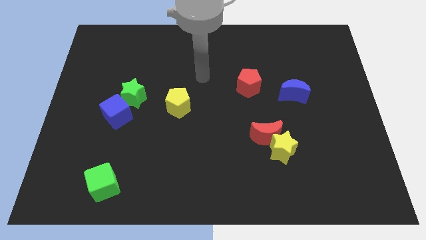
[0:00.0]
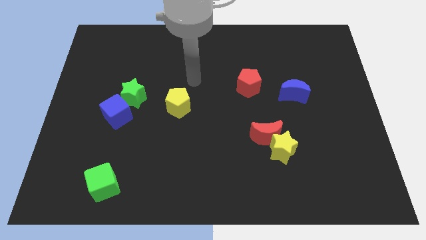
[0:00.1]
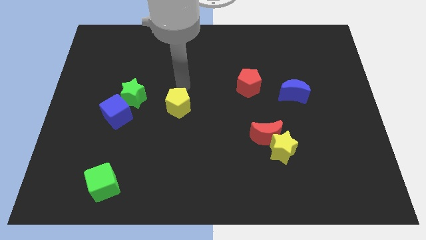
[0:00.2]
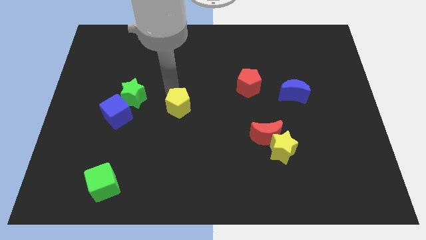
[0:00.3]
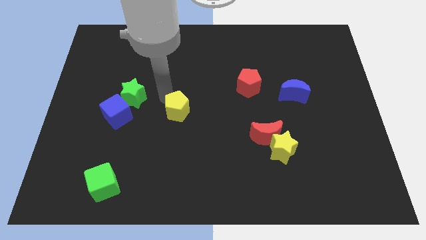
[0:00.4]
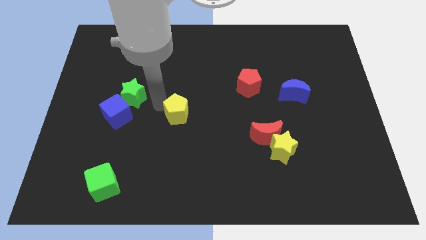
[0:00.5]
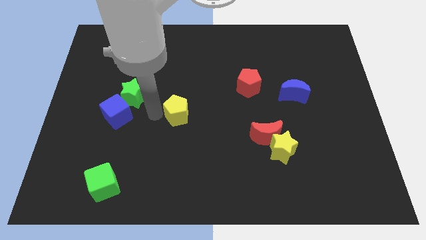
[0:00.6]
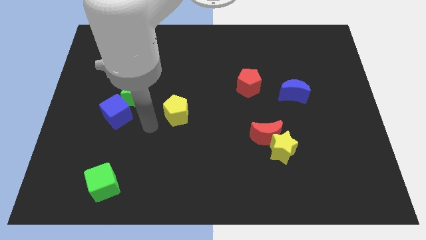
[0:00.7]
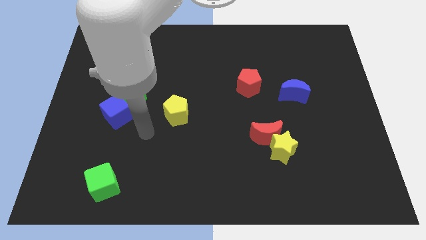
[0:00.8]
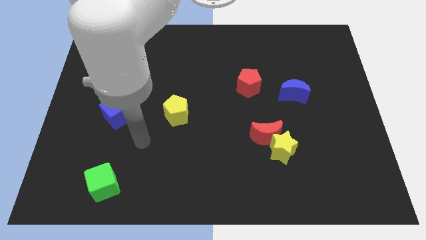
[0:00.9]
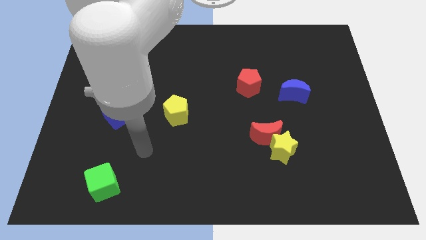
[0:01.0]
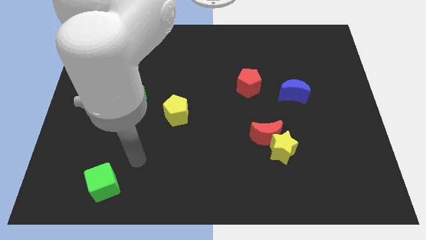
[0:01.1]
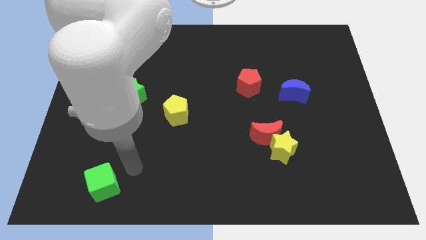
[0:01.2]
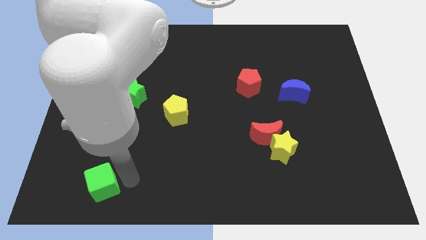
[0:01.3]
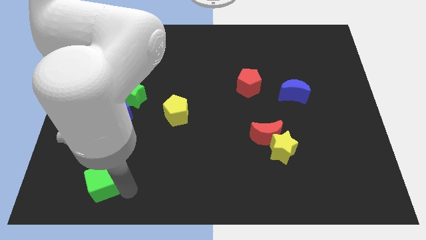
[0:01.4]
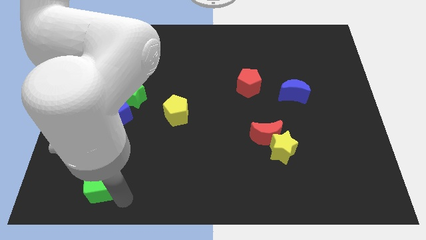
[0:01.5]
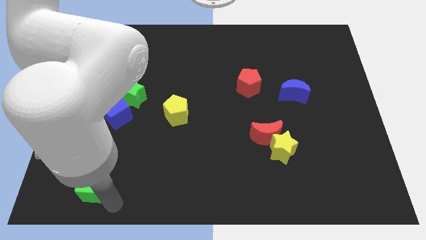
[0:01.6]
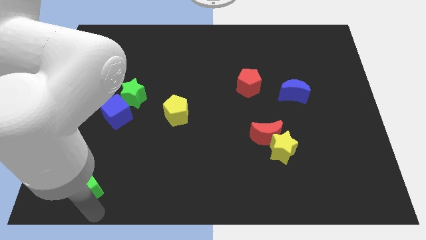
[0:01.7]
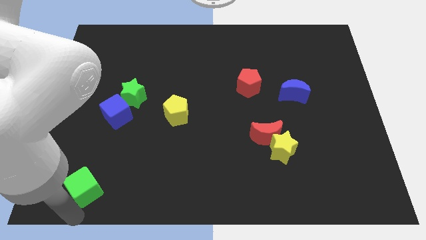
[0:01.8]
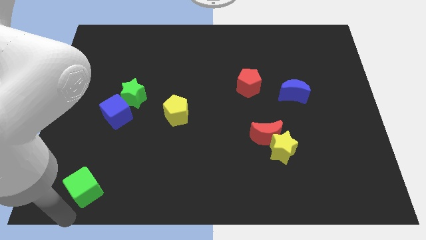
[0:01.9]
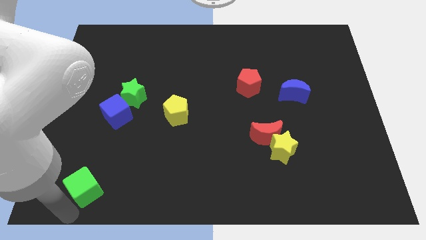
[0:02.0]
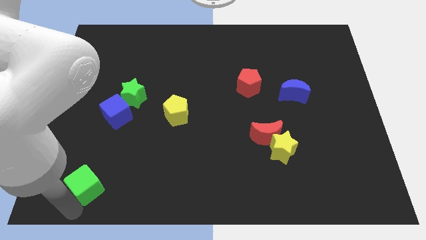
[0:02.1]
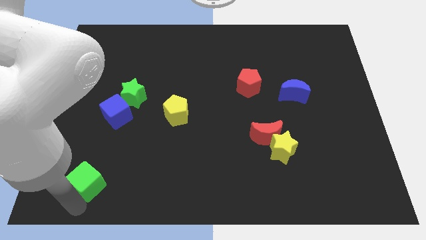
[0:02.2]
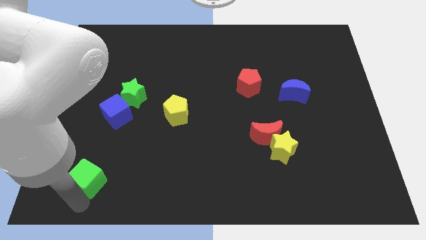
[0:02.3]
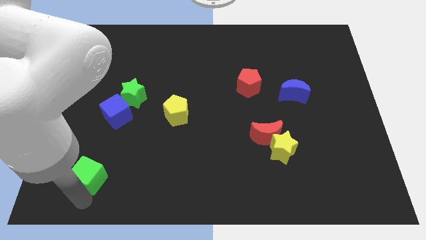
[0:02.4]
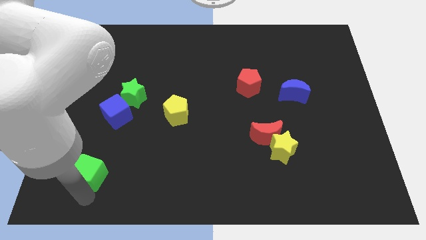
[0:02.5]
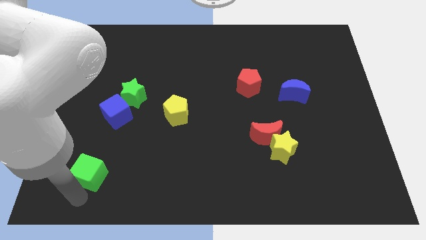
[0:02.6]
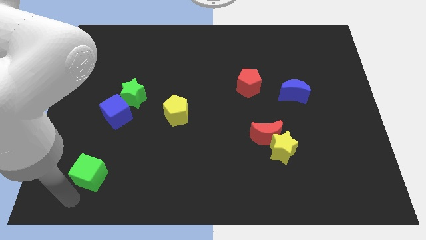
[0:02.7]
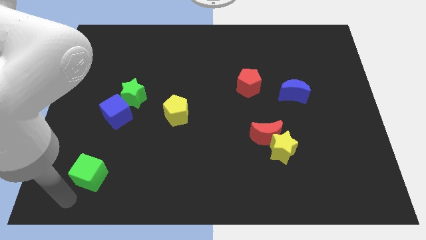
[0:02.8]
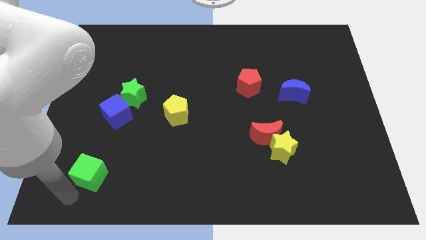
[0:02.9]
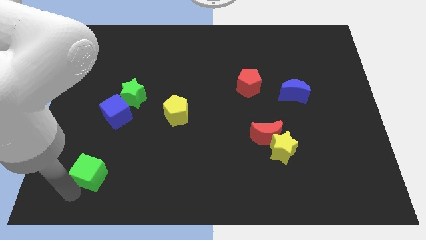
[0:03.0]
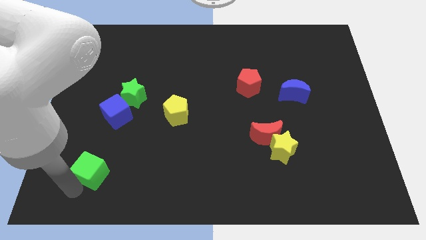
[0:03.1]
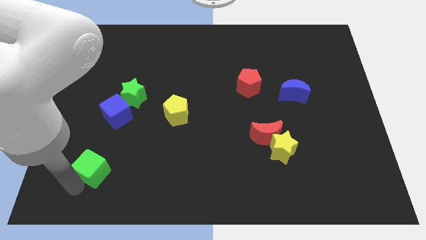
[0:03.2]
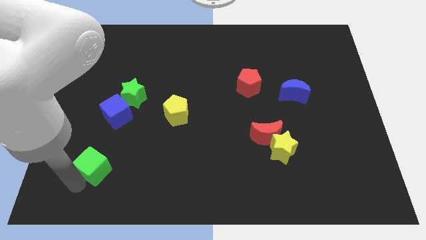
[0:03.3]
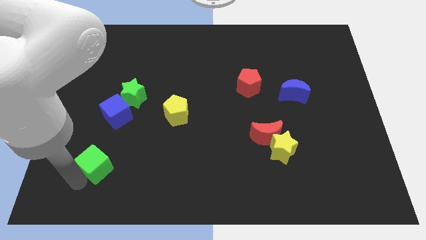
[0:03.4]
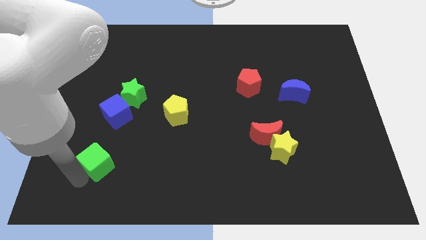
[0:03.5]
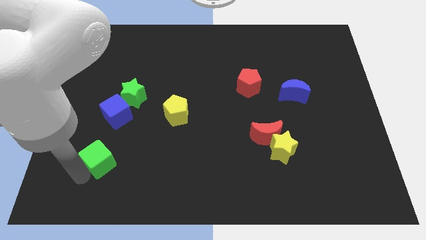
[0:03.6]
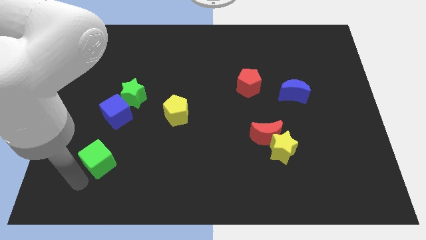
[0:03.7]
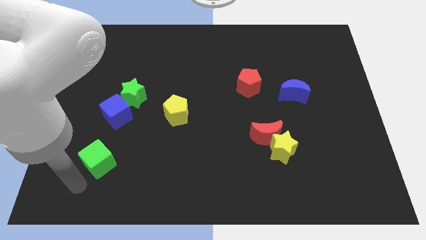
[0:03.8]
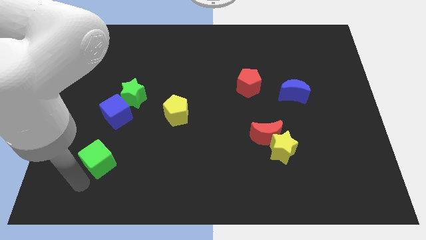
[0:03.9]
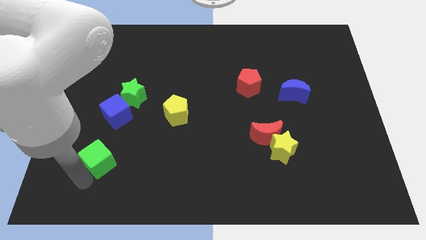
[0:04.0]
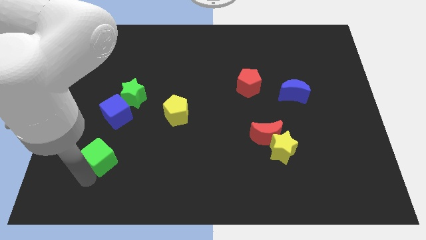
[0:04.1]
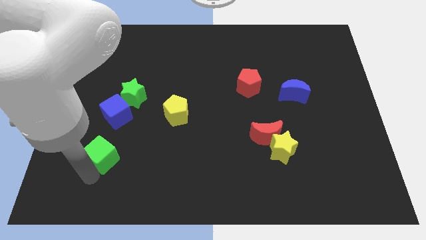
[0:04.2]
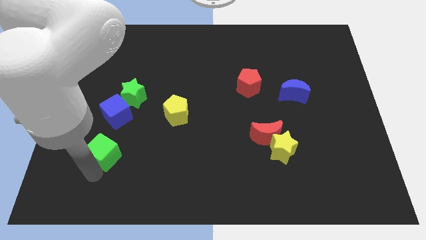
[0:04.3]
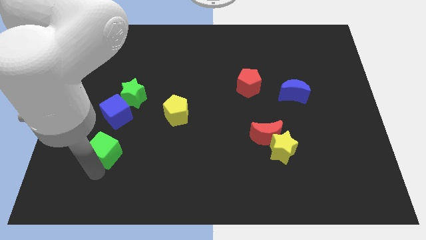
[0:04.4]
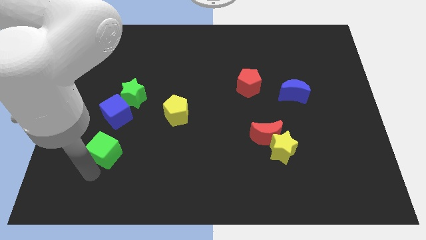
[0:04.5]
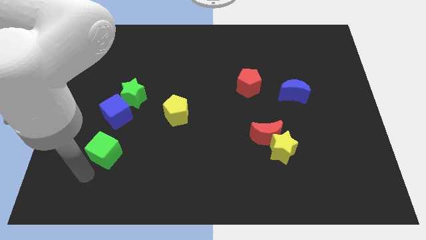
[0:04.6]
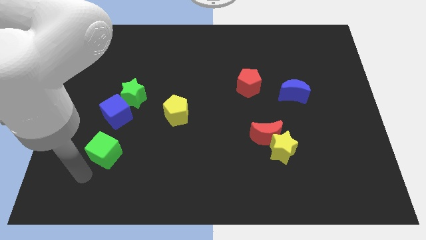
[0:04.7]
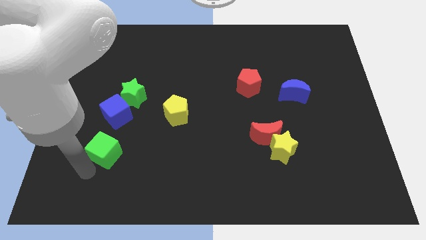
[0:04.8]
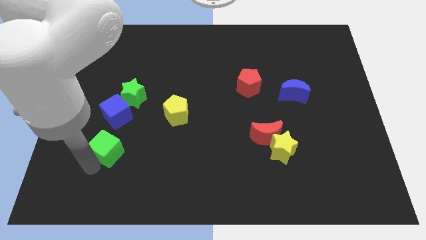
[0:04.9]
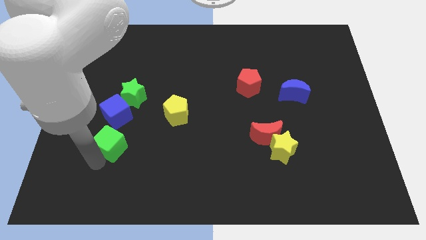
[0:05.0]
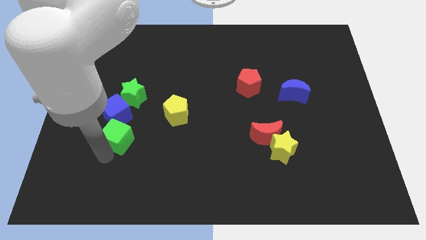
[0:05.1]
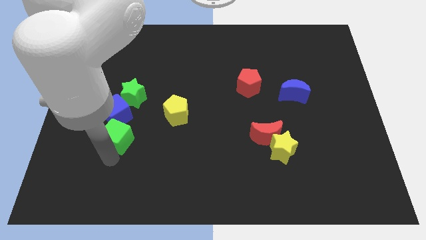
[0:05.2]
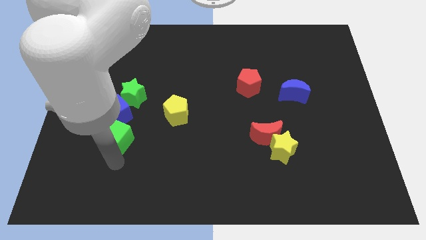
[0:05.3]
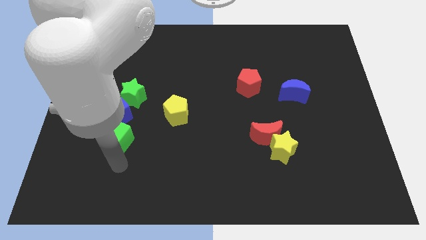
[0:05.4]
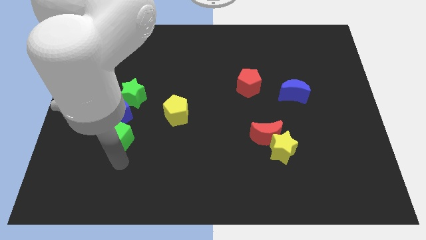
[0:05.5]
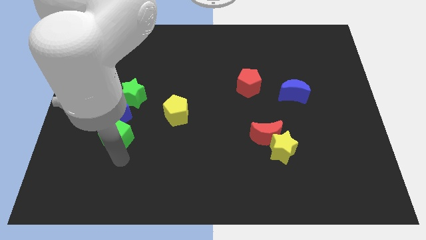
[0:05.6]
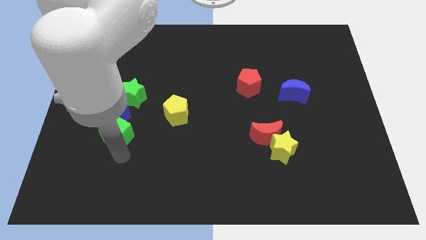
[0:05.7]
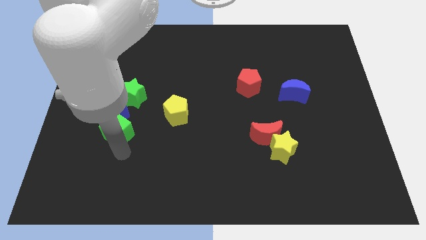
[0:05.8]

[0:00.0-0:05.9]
put the green cube towards the blue cube
